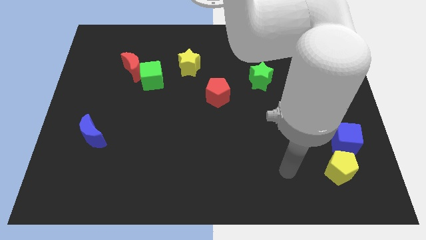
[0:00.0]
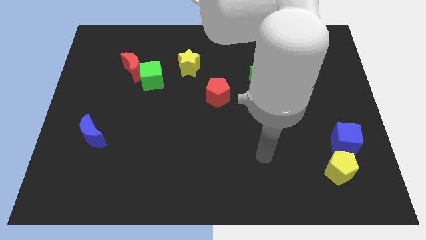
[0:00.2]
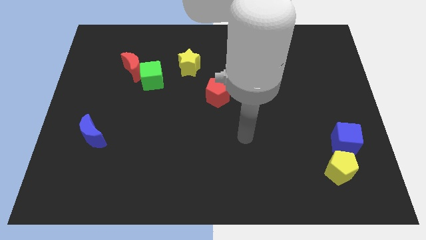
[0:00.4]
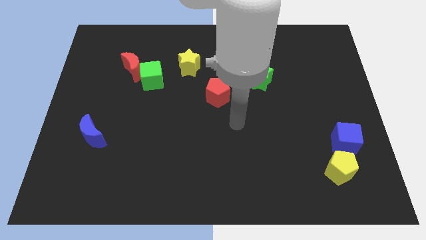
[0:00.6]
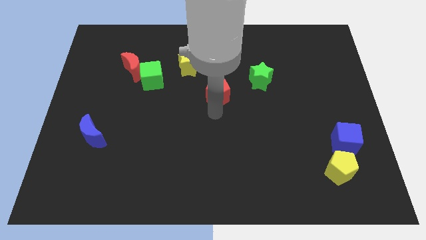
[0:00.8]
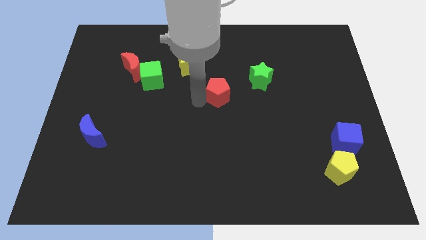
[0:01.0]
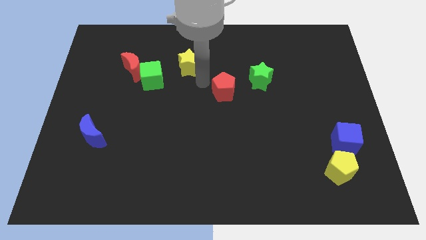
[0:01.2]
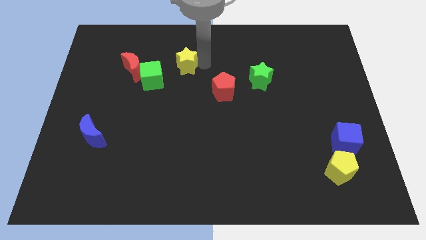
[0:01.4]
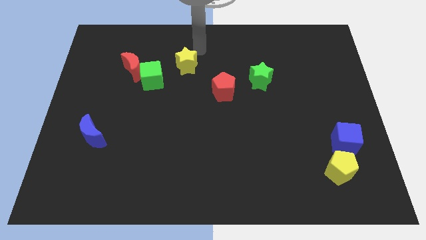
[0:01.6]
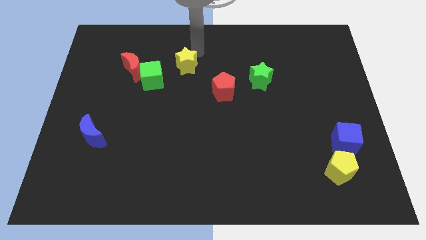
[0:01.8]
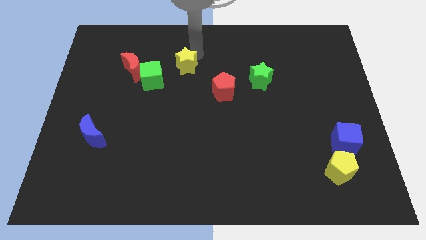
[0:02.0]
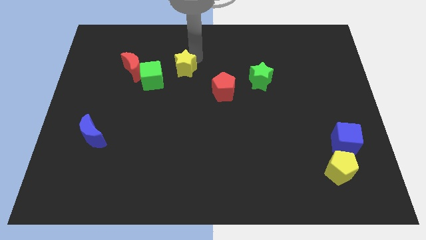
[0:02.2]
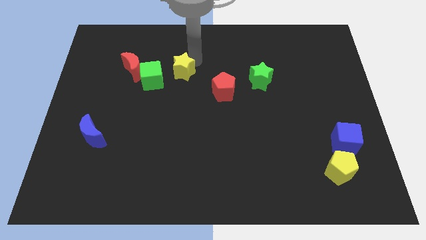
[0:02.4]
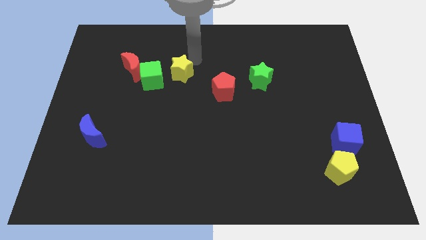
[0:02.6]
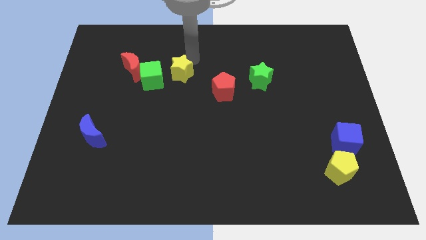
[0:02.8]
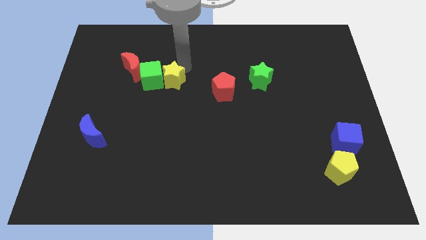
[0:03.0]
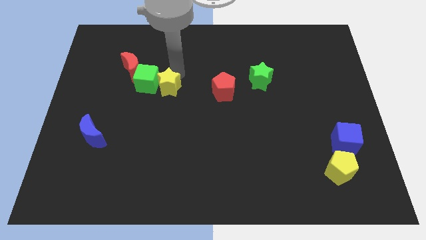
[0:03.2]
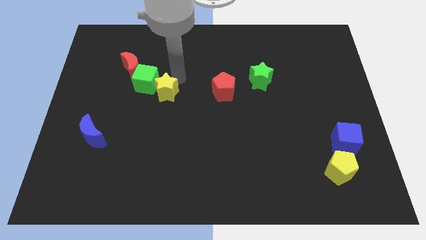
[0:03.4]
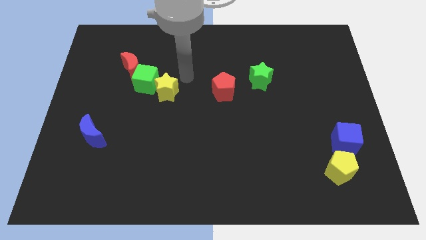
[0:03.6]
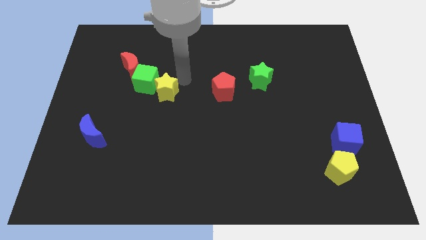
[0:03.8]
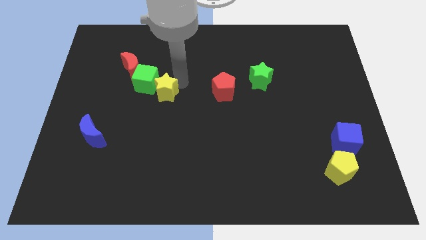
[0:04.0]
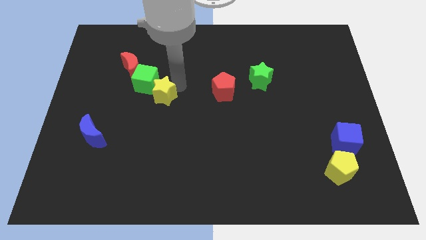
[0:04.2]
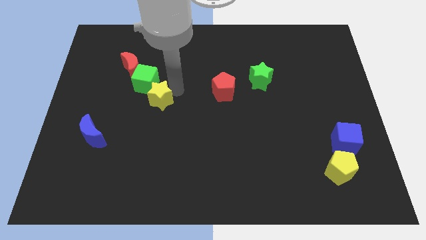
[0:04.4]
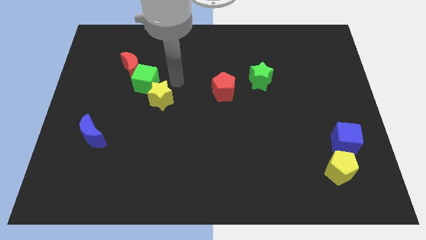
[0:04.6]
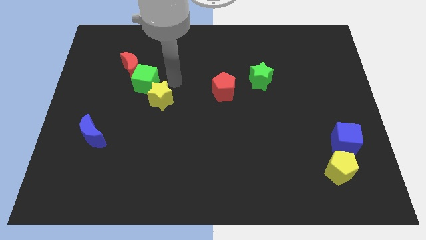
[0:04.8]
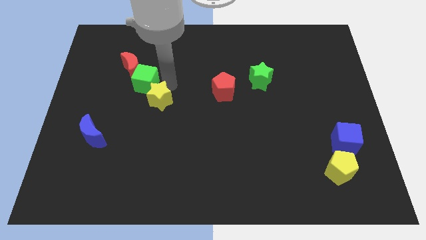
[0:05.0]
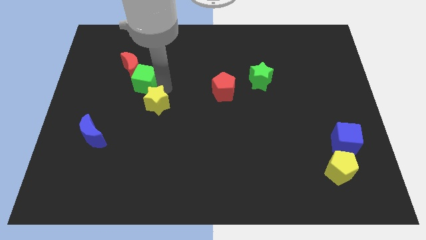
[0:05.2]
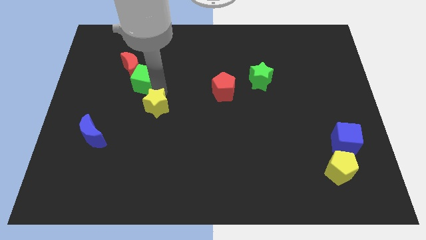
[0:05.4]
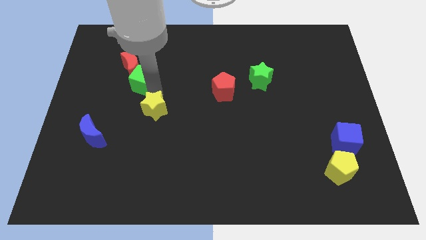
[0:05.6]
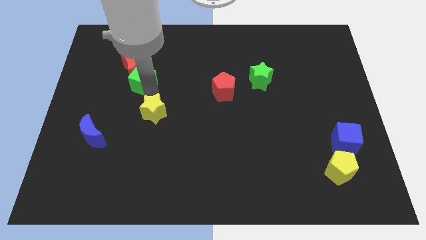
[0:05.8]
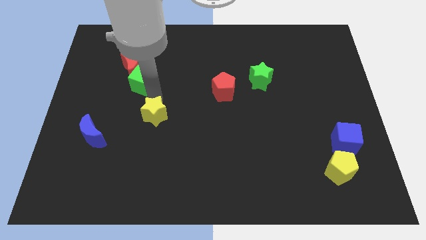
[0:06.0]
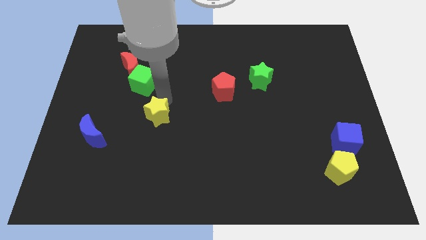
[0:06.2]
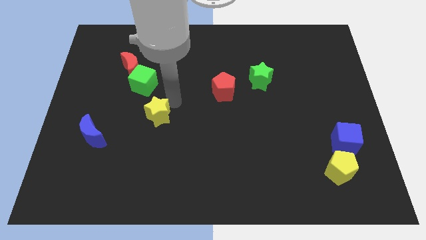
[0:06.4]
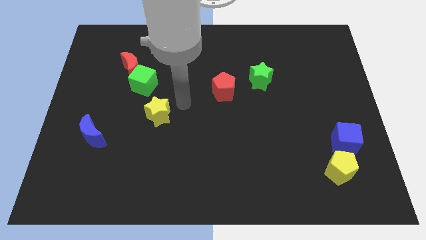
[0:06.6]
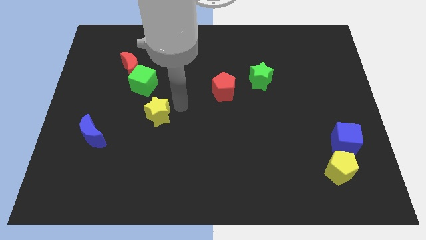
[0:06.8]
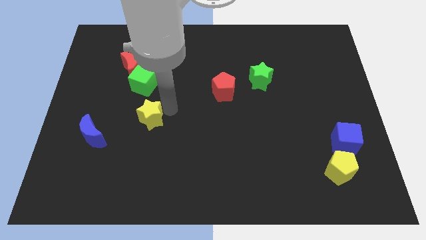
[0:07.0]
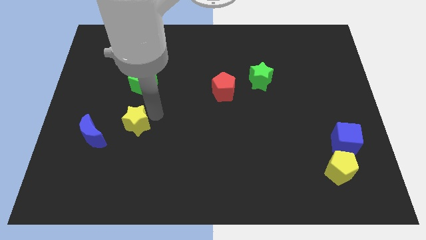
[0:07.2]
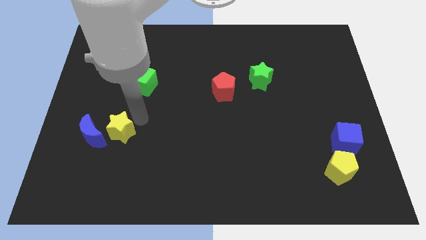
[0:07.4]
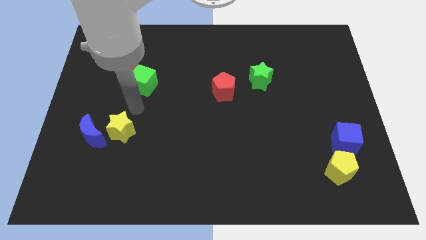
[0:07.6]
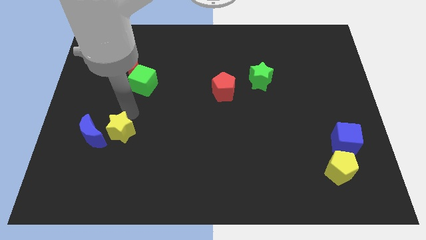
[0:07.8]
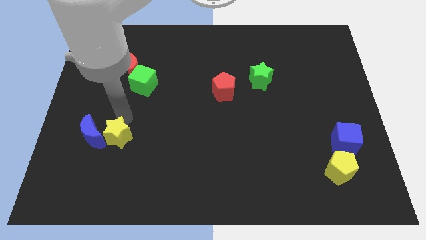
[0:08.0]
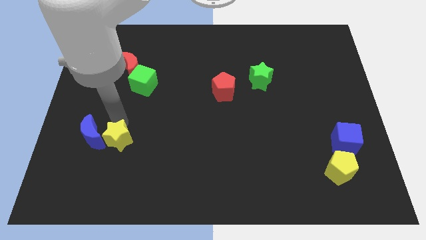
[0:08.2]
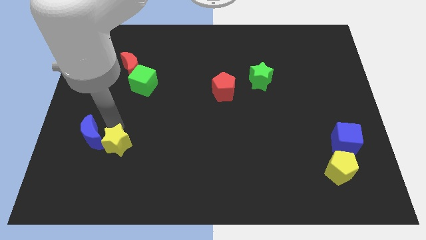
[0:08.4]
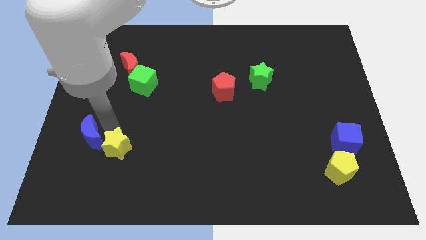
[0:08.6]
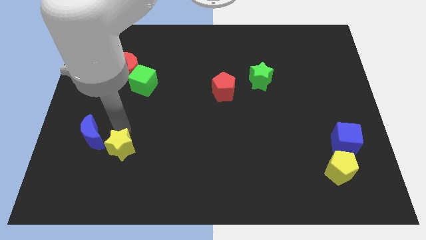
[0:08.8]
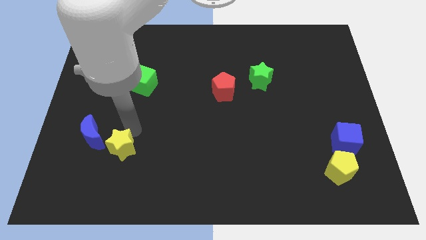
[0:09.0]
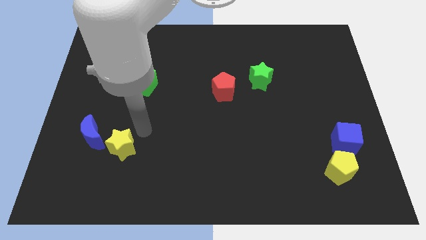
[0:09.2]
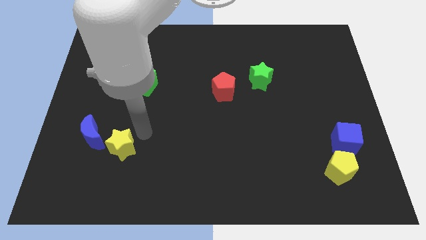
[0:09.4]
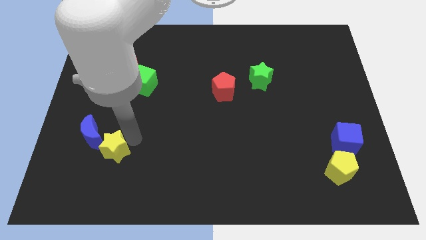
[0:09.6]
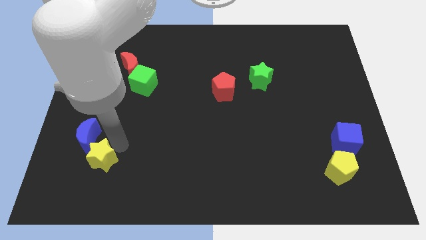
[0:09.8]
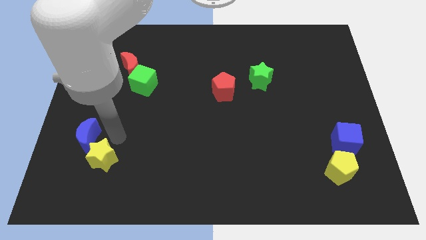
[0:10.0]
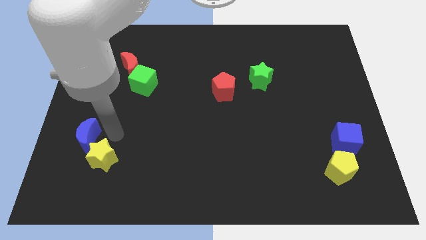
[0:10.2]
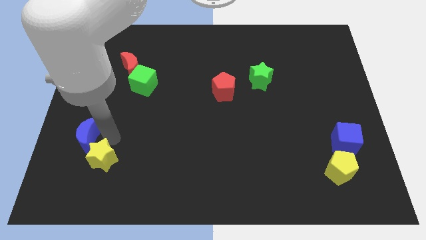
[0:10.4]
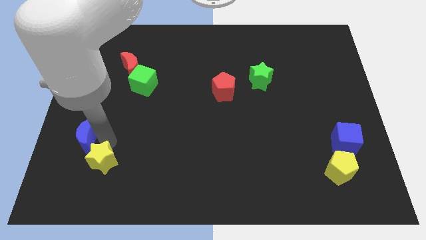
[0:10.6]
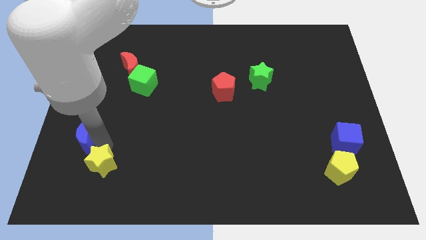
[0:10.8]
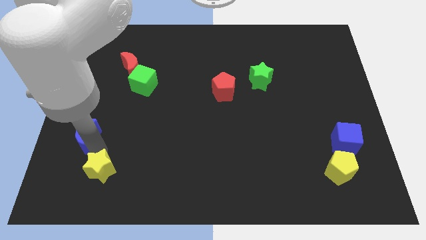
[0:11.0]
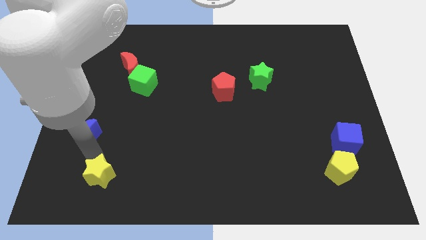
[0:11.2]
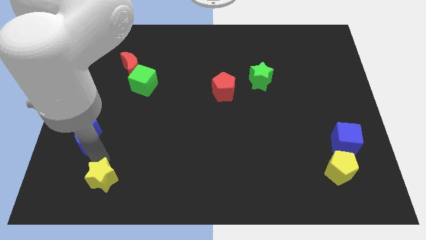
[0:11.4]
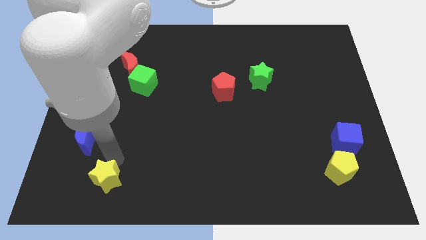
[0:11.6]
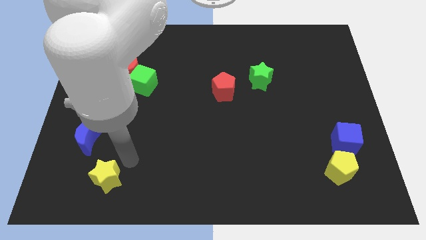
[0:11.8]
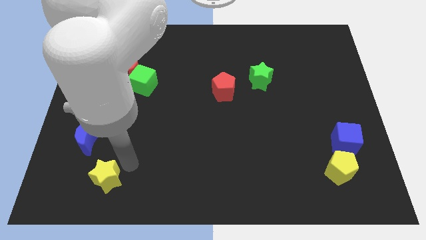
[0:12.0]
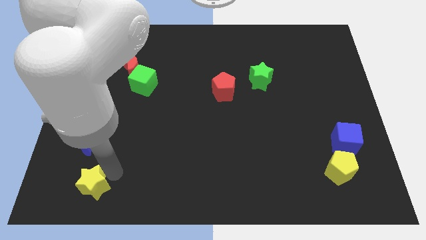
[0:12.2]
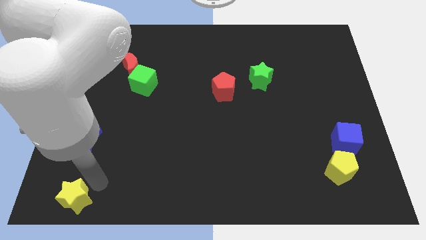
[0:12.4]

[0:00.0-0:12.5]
put the yellow star to the bottom left of the board
